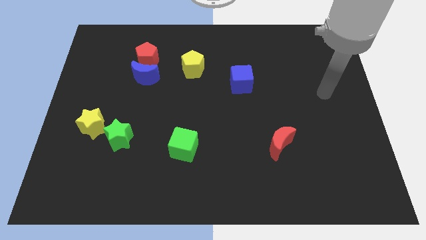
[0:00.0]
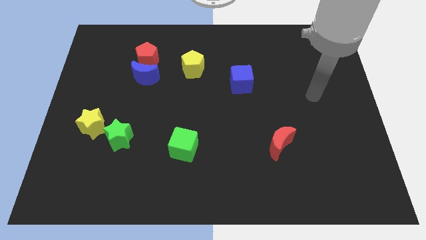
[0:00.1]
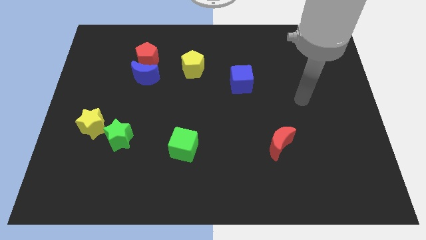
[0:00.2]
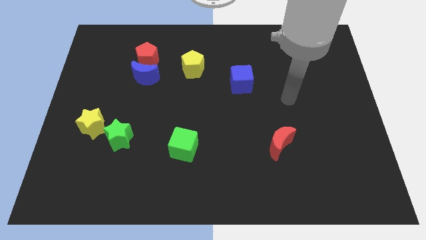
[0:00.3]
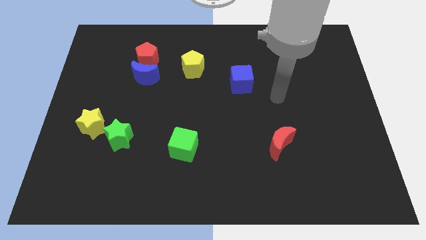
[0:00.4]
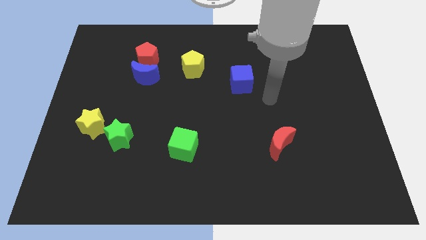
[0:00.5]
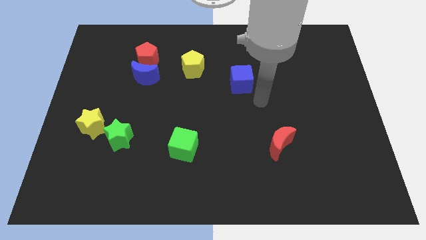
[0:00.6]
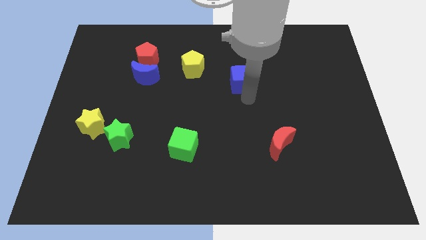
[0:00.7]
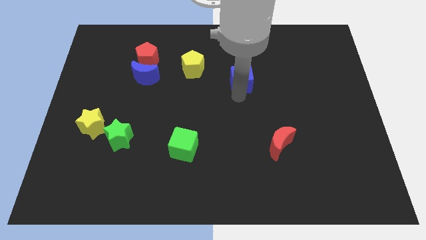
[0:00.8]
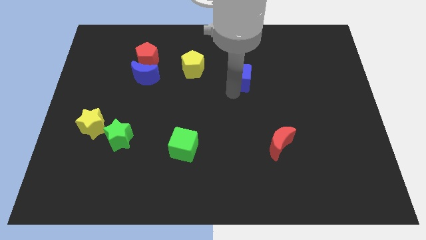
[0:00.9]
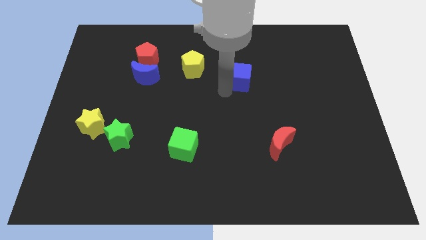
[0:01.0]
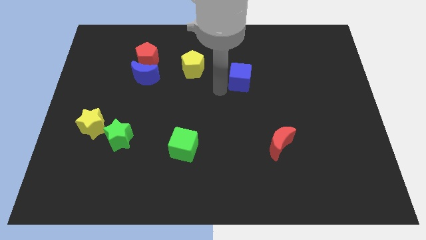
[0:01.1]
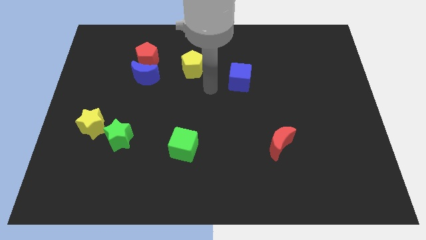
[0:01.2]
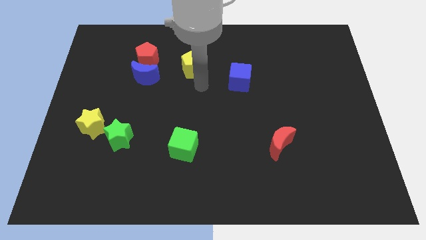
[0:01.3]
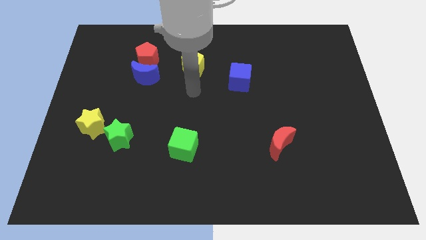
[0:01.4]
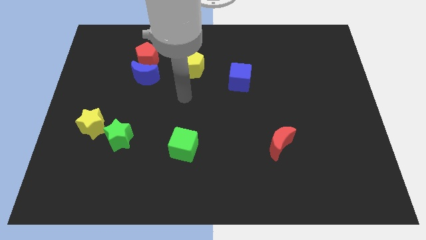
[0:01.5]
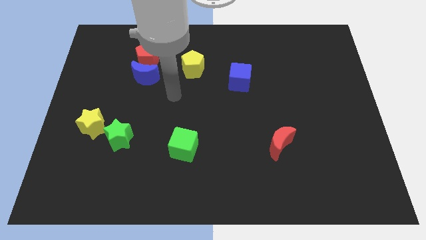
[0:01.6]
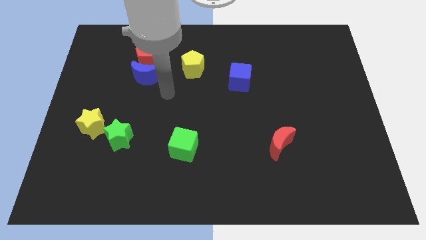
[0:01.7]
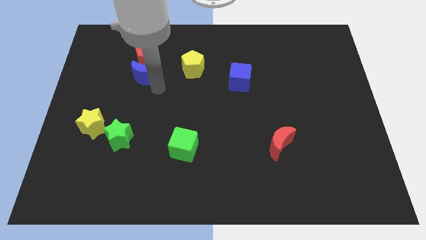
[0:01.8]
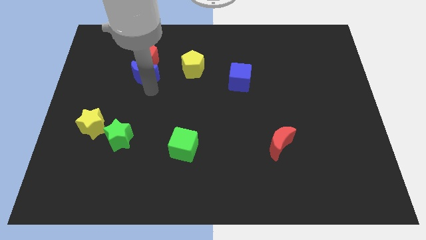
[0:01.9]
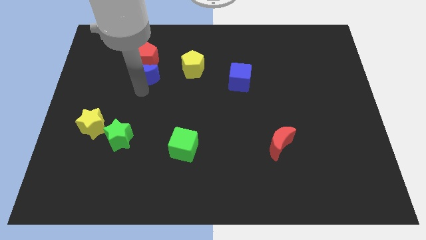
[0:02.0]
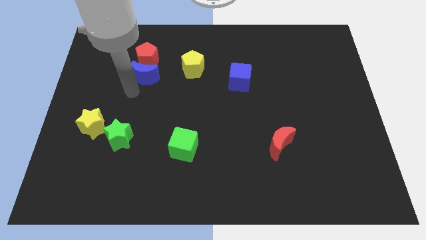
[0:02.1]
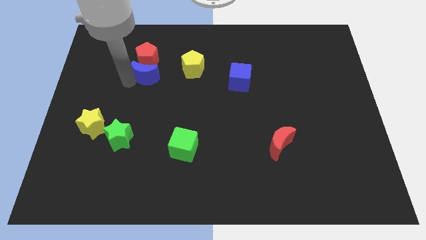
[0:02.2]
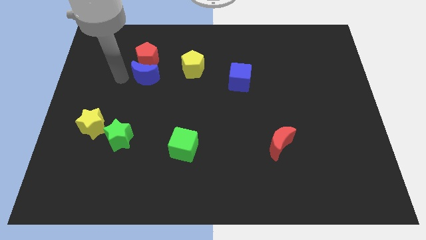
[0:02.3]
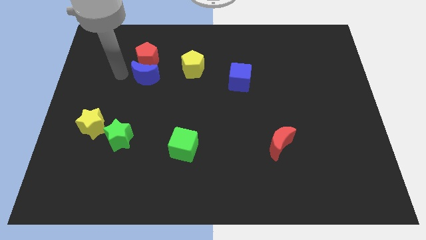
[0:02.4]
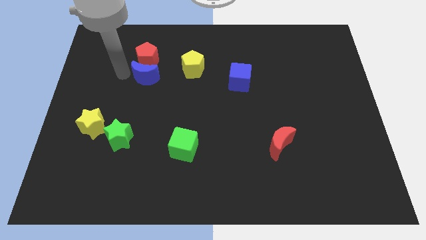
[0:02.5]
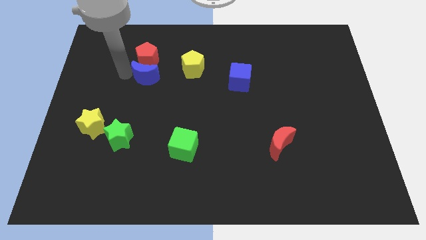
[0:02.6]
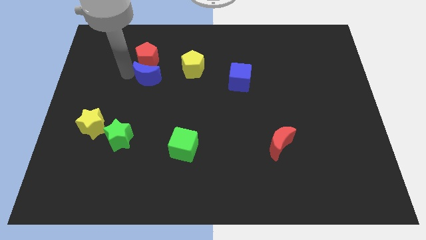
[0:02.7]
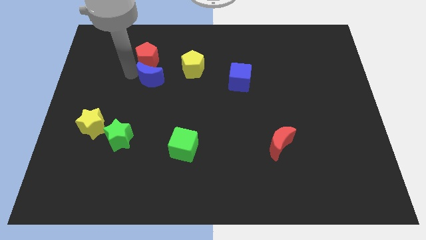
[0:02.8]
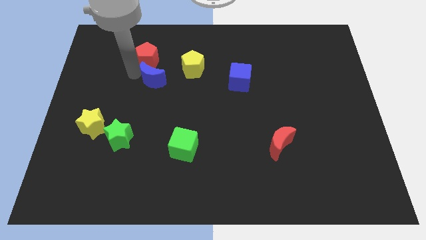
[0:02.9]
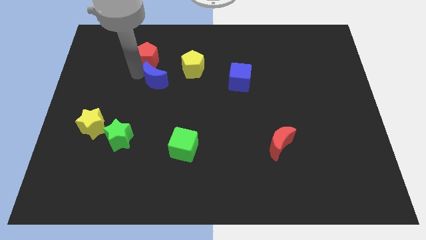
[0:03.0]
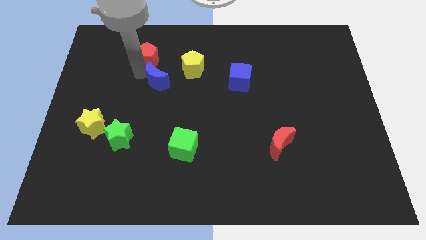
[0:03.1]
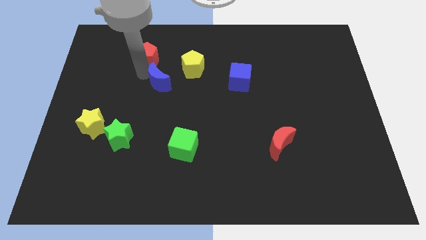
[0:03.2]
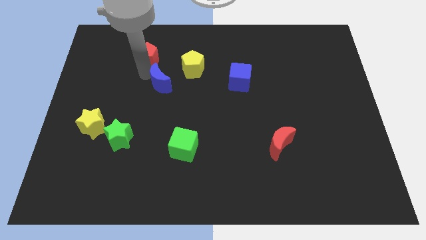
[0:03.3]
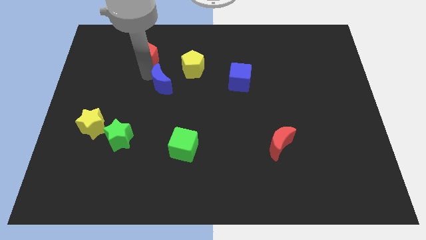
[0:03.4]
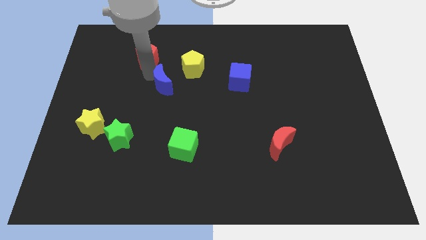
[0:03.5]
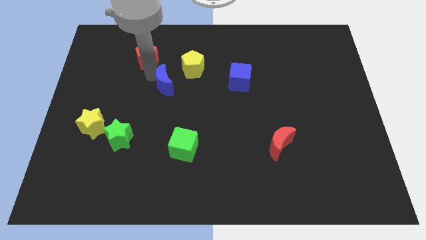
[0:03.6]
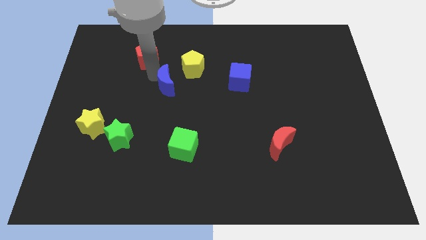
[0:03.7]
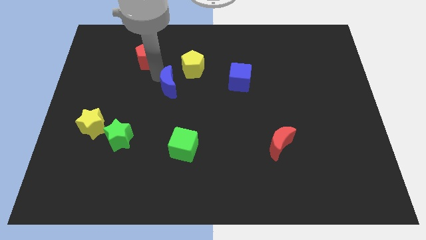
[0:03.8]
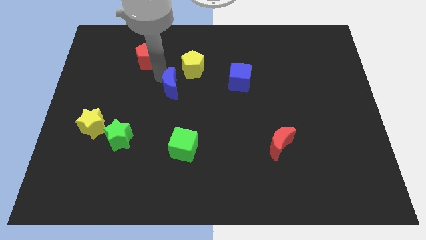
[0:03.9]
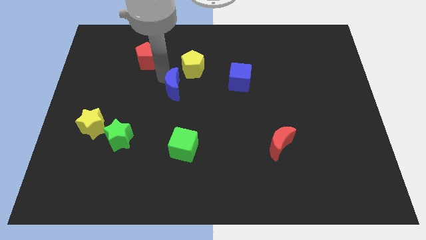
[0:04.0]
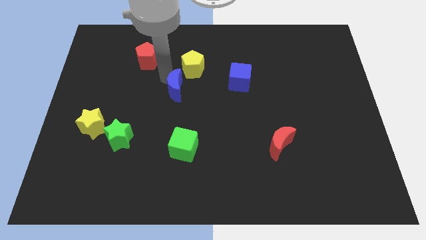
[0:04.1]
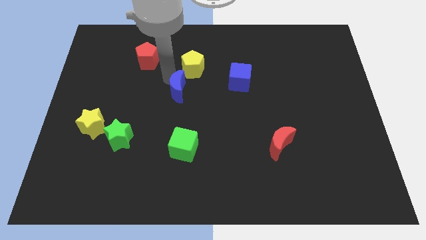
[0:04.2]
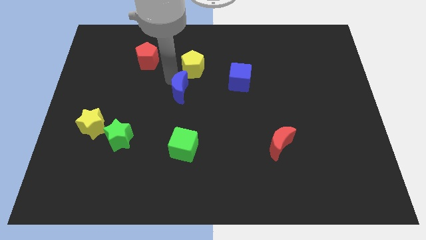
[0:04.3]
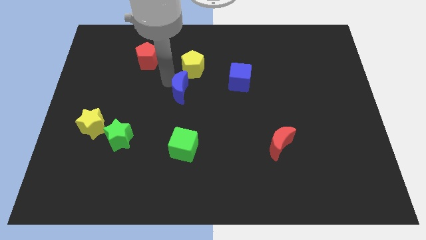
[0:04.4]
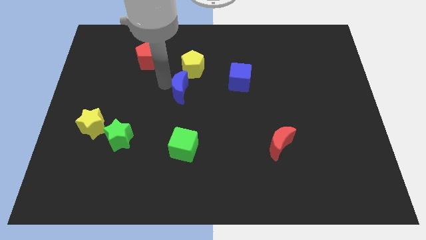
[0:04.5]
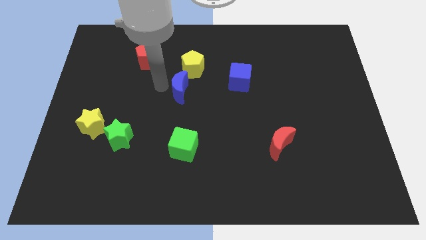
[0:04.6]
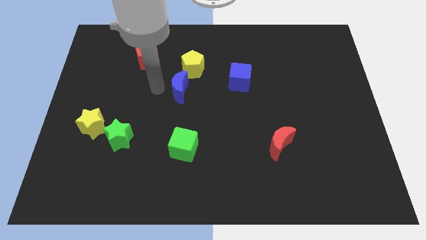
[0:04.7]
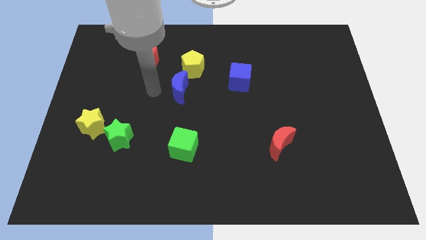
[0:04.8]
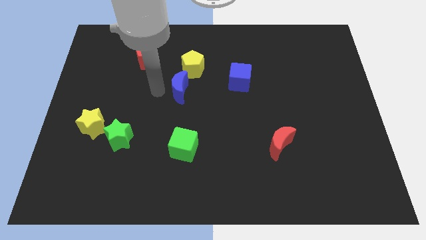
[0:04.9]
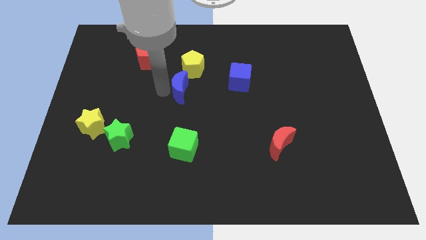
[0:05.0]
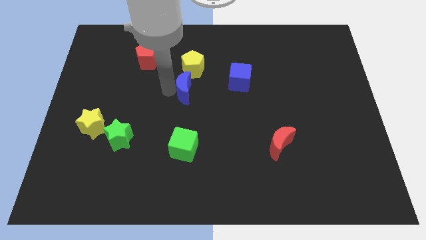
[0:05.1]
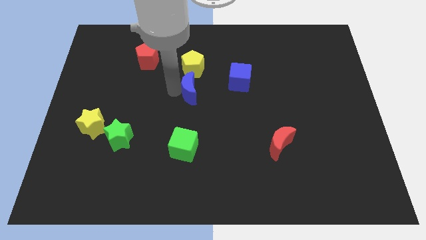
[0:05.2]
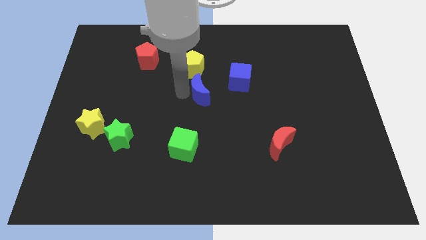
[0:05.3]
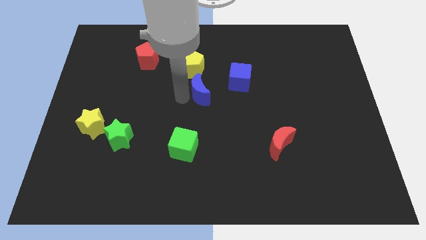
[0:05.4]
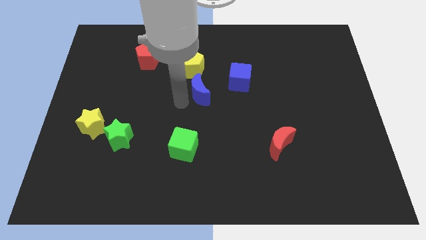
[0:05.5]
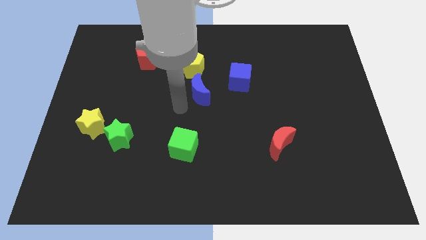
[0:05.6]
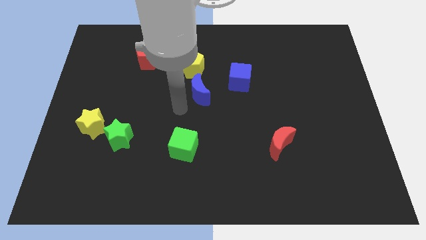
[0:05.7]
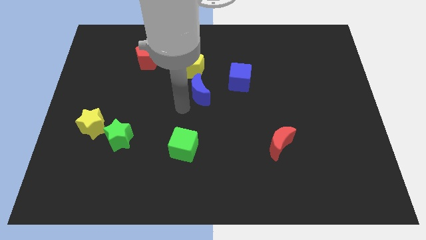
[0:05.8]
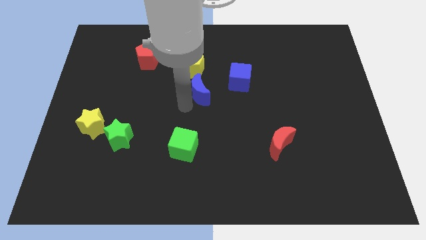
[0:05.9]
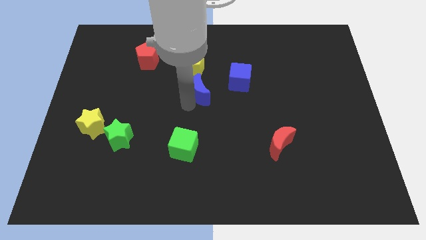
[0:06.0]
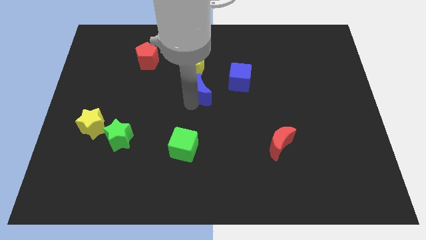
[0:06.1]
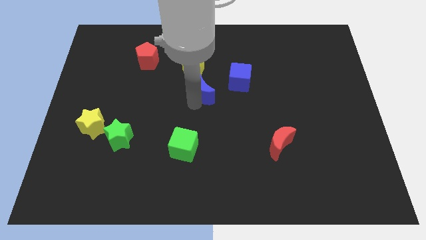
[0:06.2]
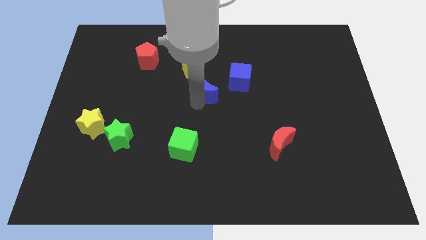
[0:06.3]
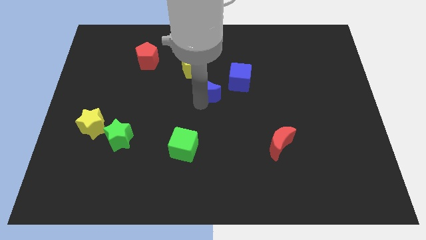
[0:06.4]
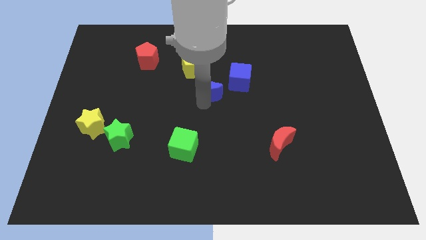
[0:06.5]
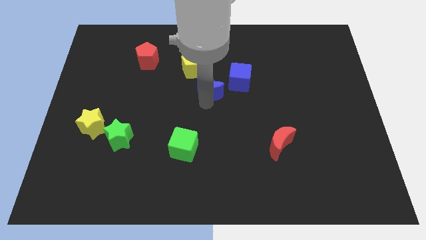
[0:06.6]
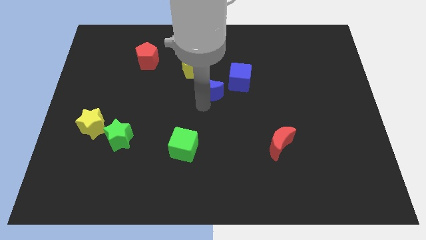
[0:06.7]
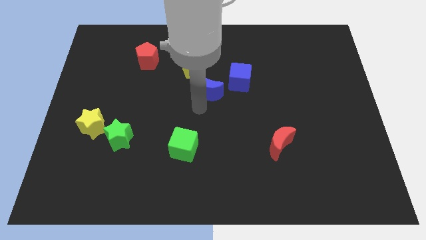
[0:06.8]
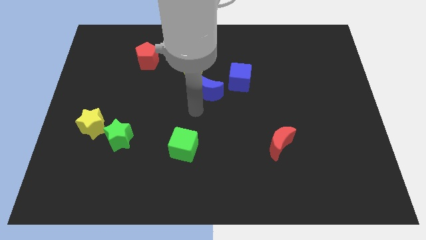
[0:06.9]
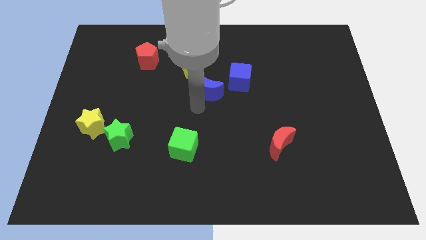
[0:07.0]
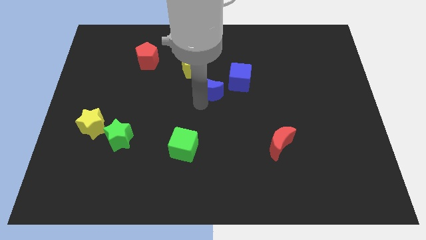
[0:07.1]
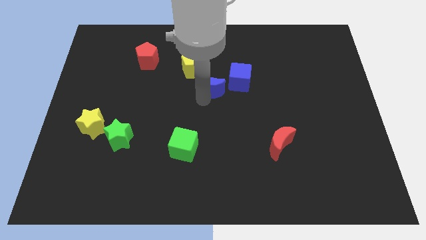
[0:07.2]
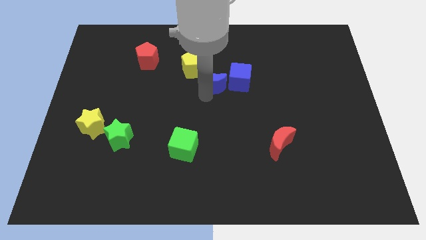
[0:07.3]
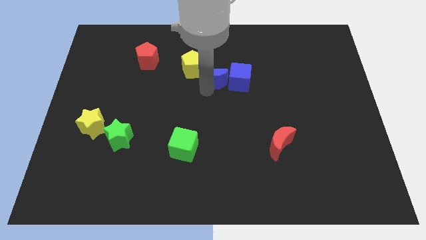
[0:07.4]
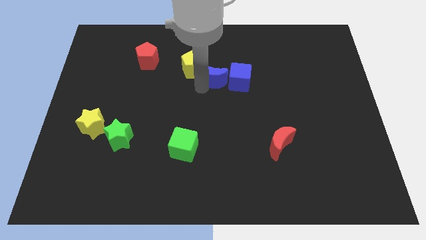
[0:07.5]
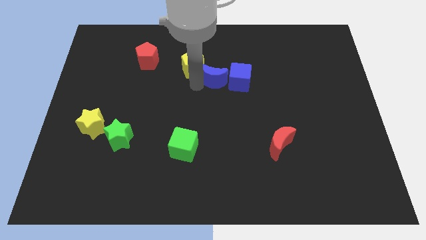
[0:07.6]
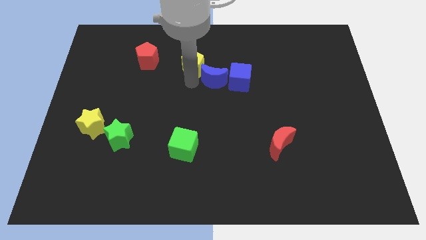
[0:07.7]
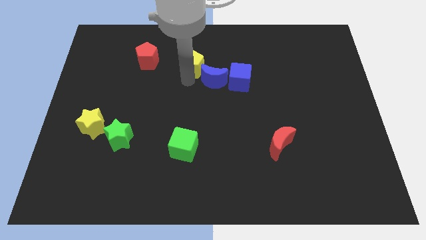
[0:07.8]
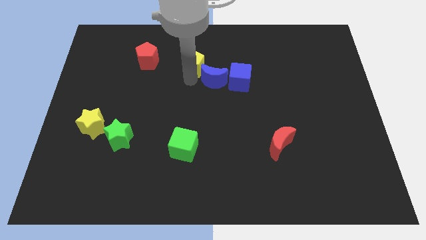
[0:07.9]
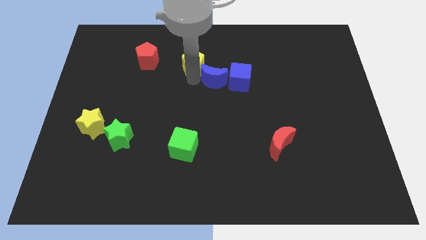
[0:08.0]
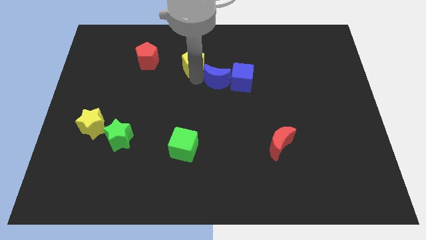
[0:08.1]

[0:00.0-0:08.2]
put the blue moon to the blue cube
